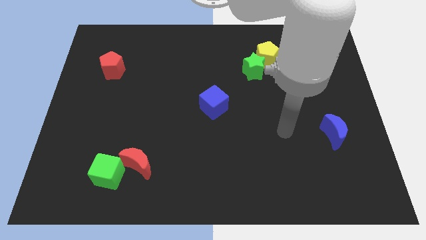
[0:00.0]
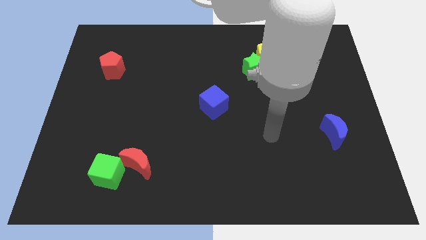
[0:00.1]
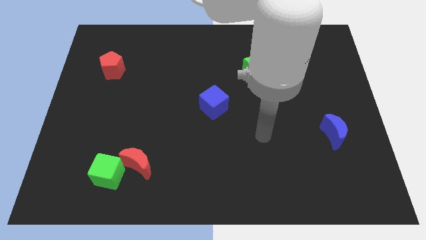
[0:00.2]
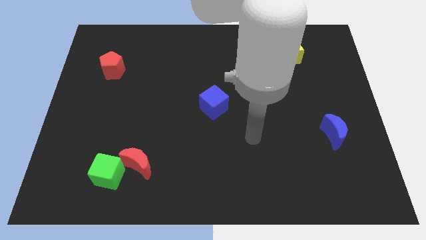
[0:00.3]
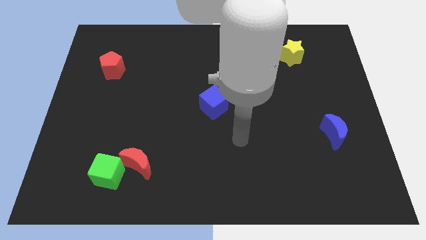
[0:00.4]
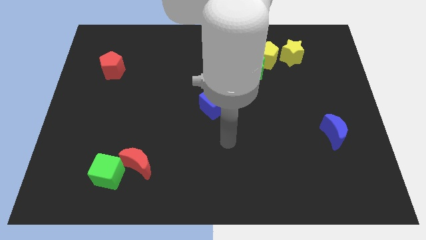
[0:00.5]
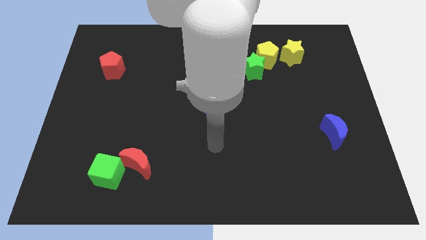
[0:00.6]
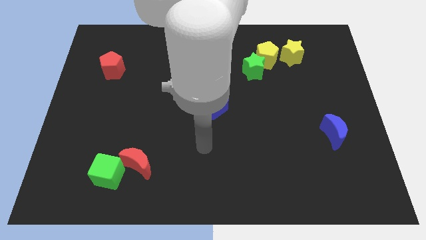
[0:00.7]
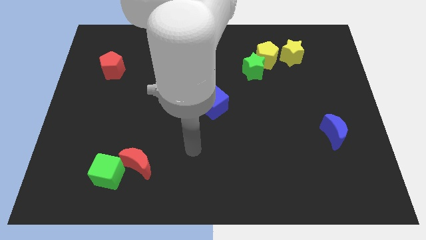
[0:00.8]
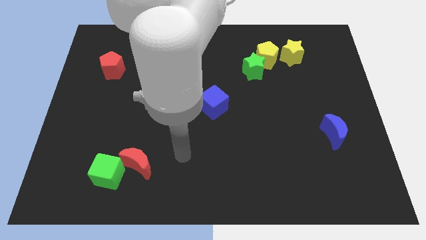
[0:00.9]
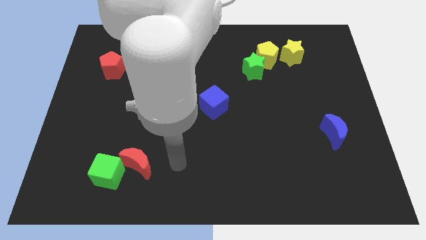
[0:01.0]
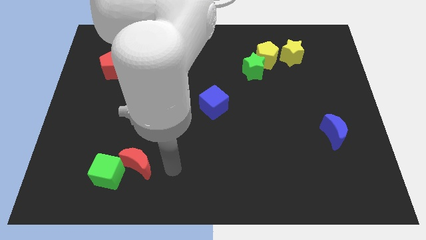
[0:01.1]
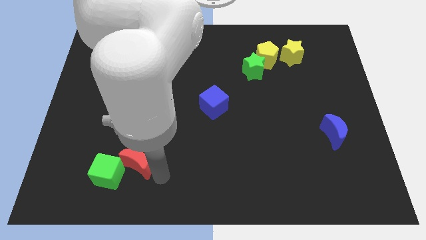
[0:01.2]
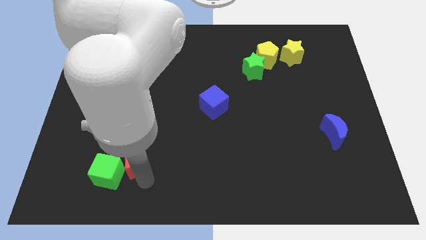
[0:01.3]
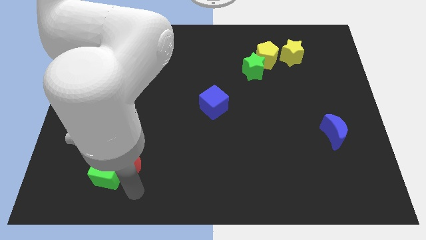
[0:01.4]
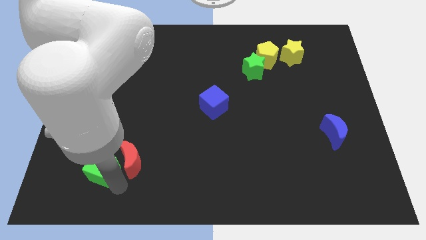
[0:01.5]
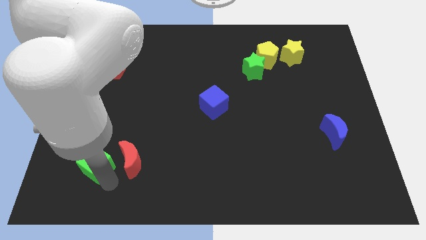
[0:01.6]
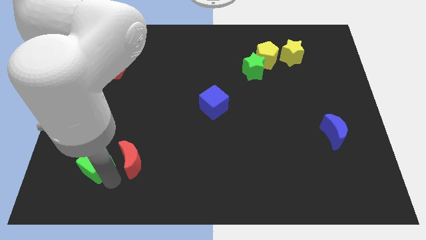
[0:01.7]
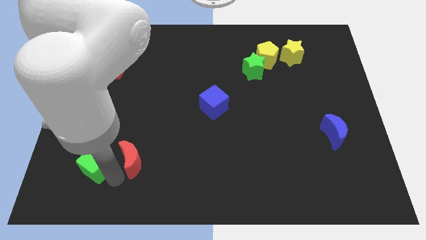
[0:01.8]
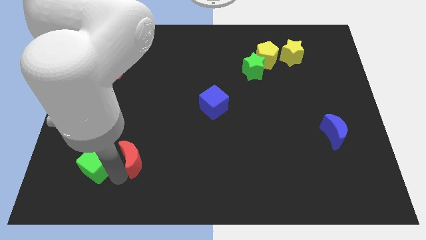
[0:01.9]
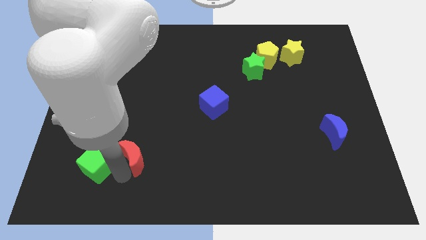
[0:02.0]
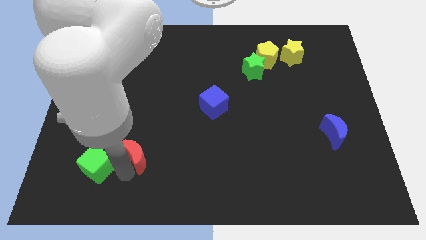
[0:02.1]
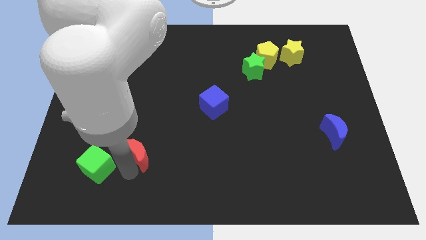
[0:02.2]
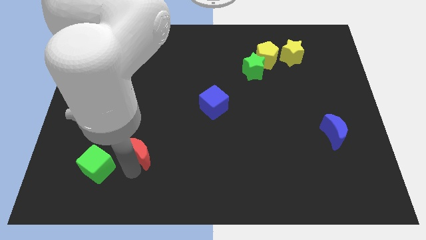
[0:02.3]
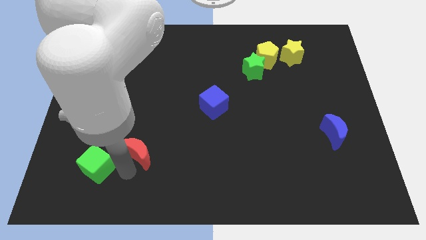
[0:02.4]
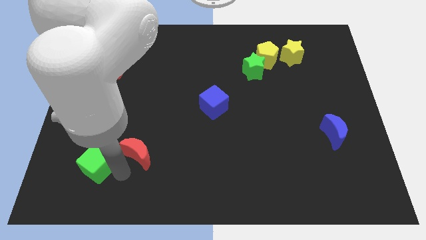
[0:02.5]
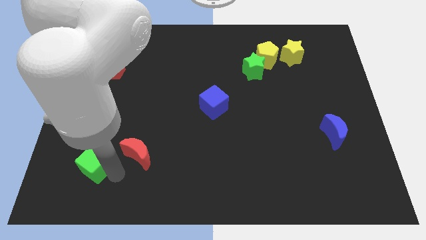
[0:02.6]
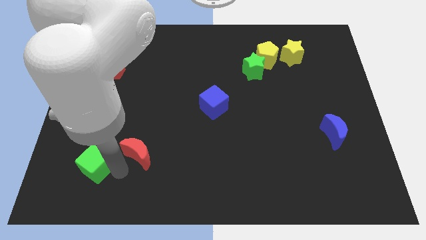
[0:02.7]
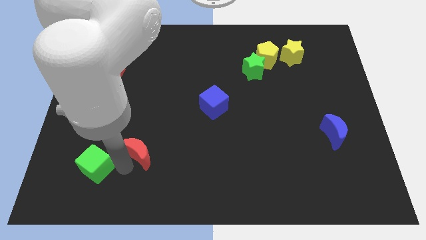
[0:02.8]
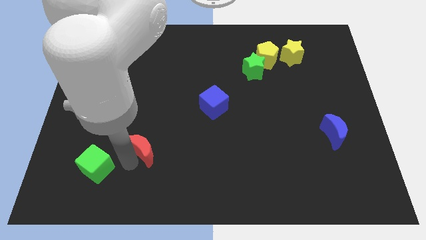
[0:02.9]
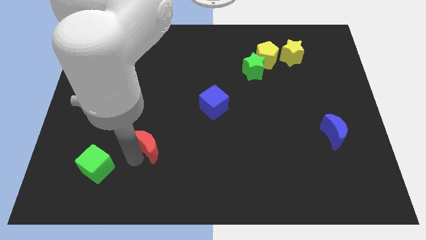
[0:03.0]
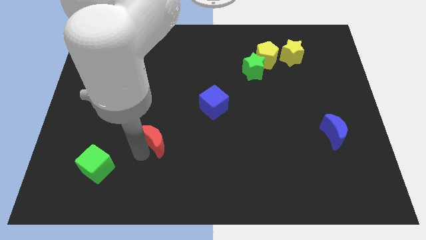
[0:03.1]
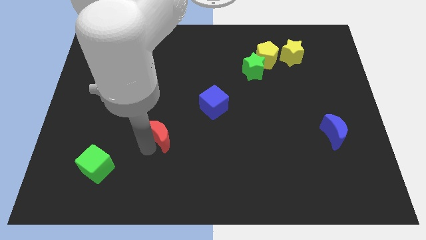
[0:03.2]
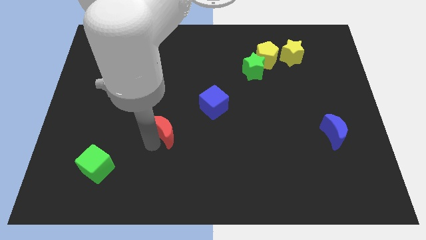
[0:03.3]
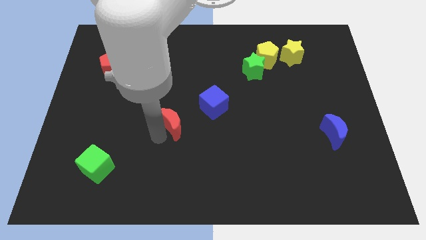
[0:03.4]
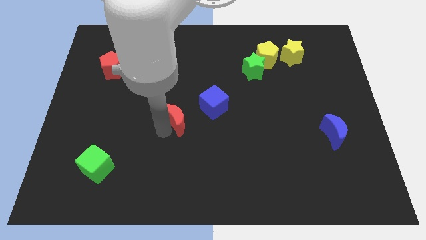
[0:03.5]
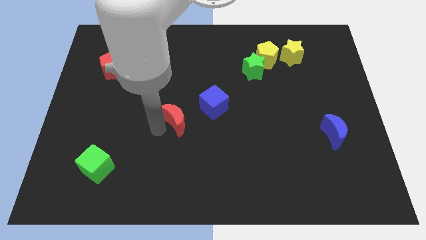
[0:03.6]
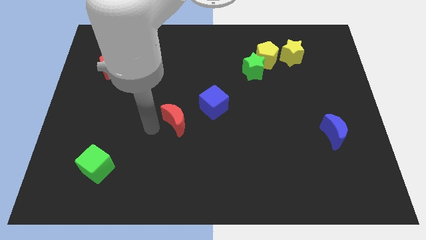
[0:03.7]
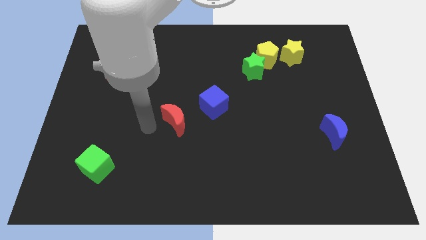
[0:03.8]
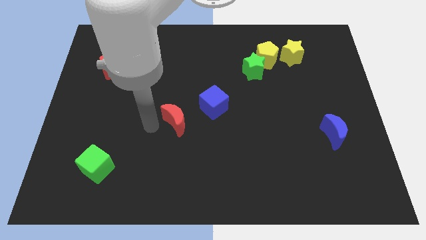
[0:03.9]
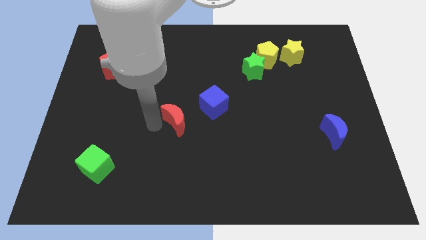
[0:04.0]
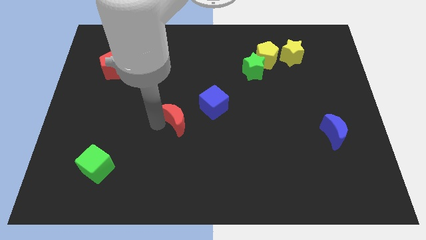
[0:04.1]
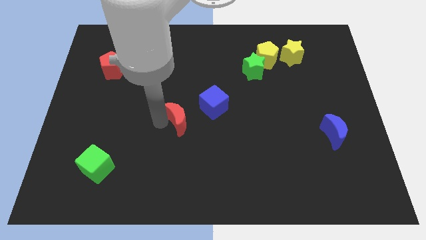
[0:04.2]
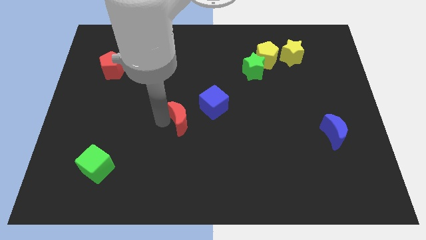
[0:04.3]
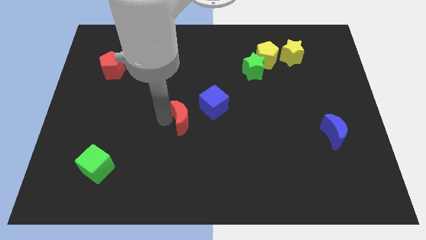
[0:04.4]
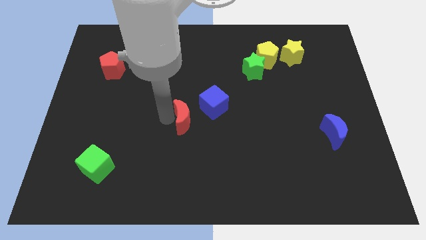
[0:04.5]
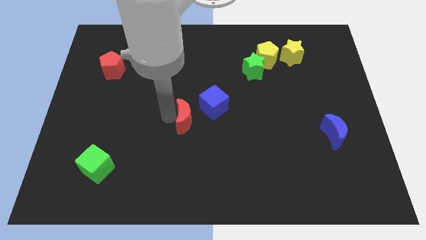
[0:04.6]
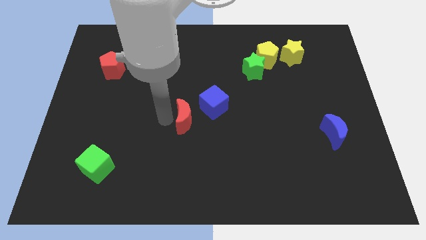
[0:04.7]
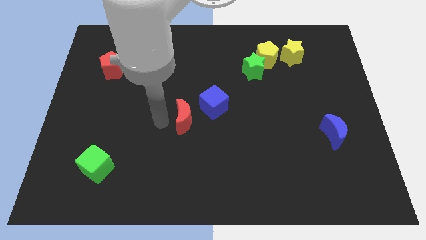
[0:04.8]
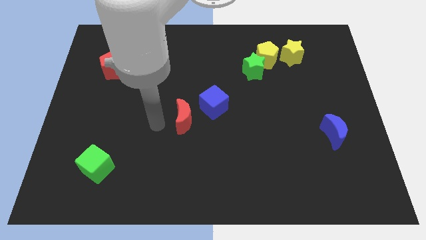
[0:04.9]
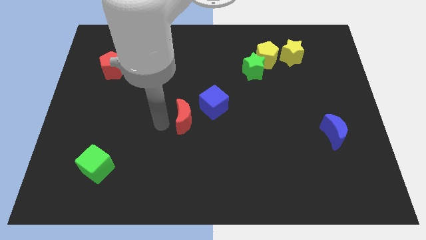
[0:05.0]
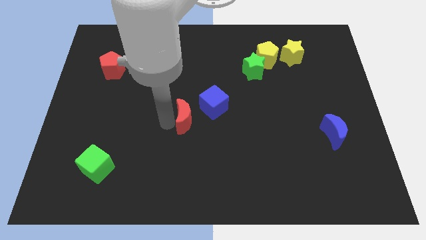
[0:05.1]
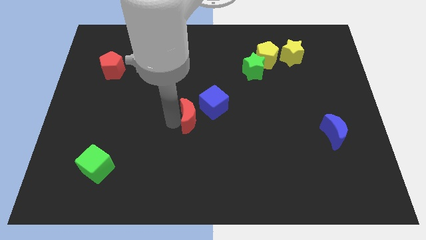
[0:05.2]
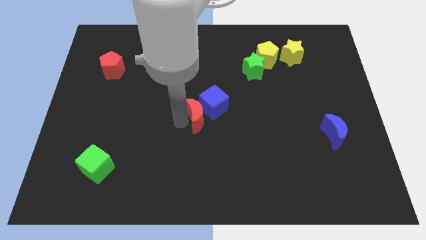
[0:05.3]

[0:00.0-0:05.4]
push the red moon next to the blue cube

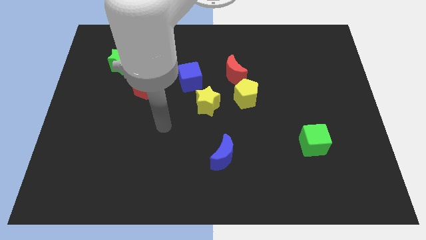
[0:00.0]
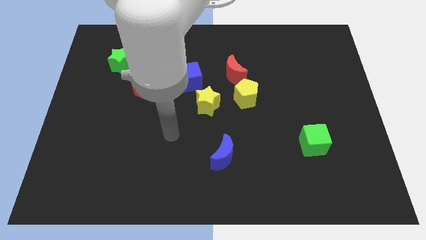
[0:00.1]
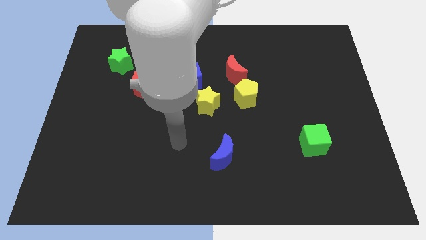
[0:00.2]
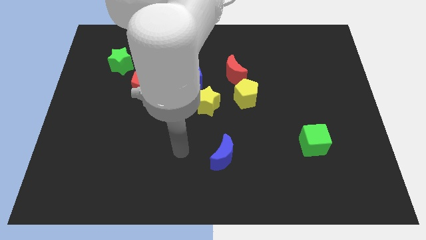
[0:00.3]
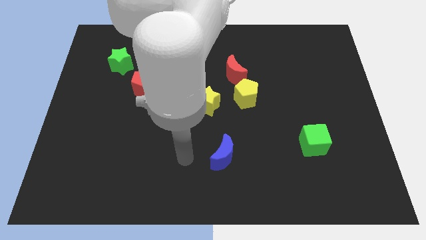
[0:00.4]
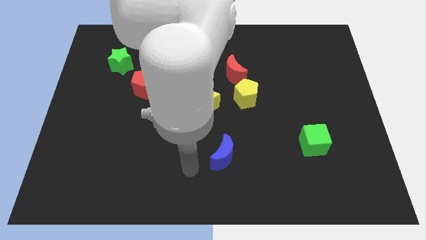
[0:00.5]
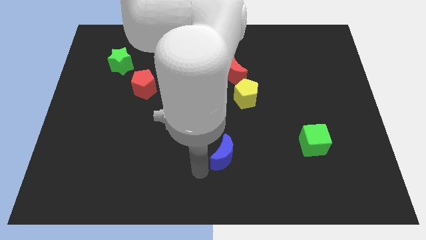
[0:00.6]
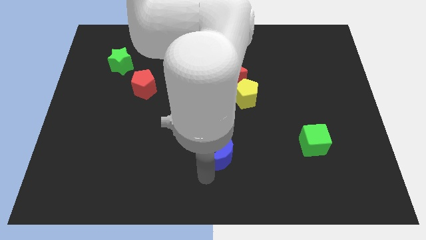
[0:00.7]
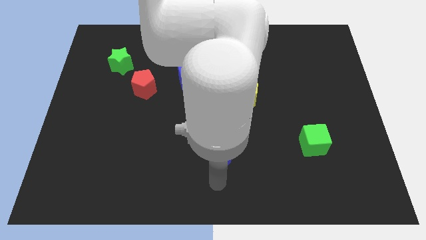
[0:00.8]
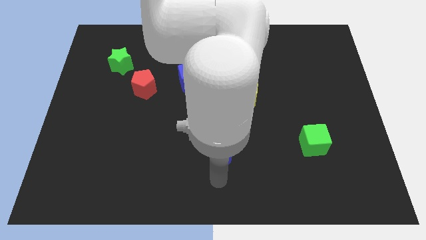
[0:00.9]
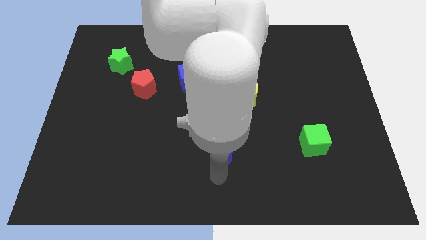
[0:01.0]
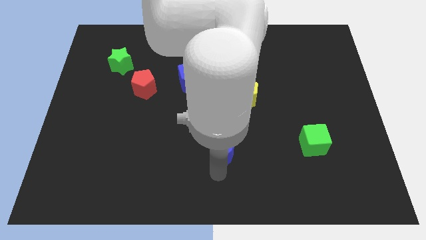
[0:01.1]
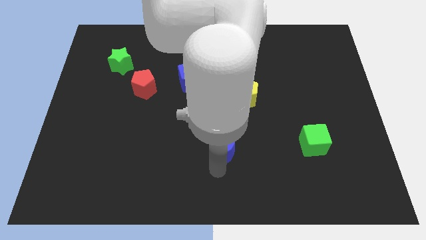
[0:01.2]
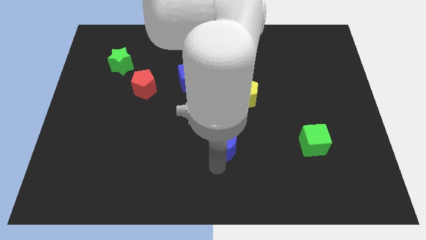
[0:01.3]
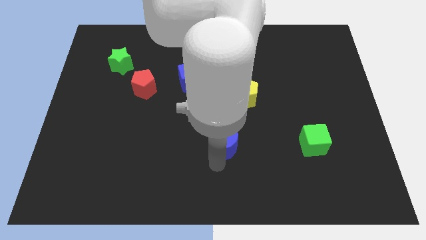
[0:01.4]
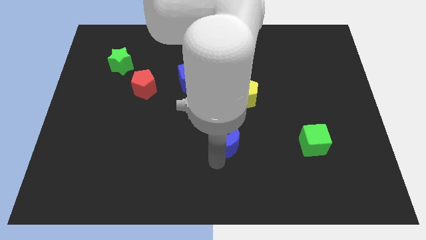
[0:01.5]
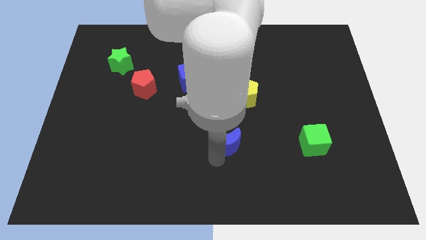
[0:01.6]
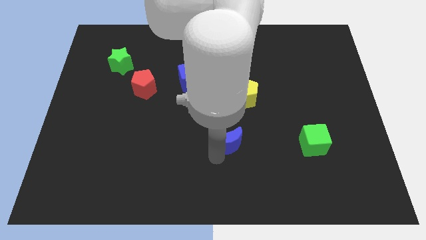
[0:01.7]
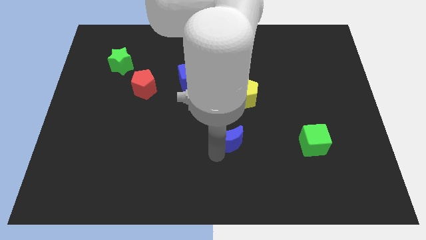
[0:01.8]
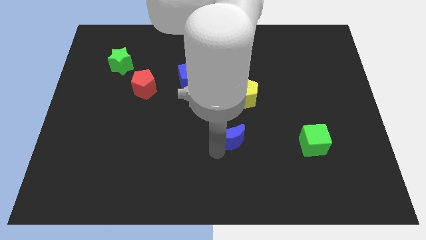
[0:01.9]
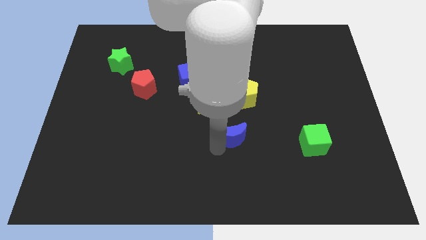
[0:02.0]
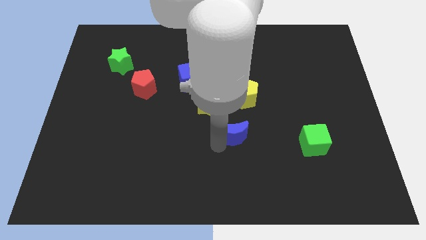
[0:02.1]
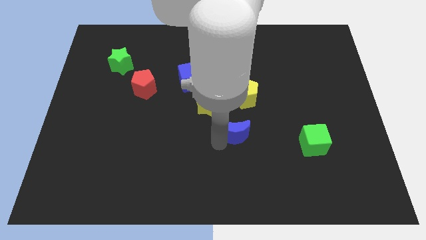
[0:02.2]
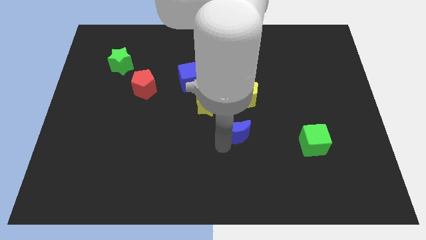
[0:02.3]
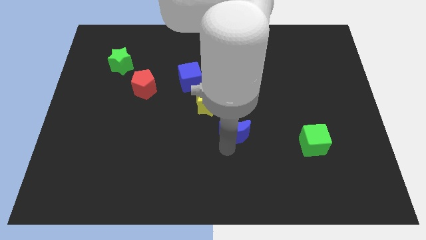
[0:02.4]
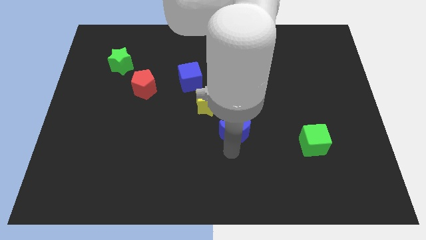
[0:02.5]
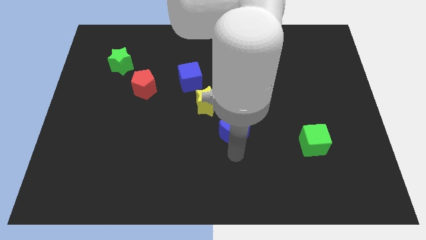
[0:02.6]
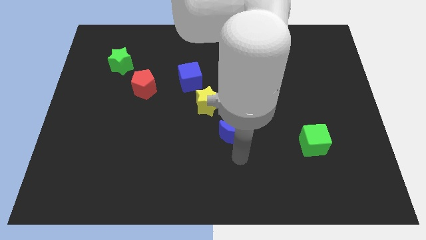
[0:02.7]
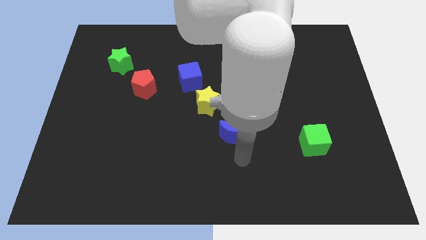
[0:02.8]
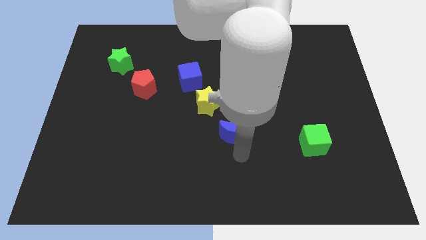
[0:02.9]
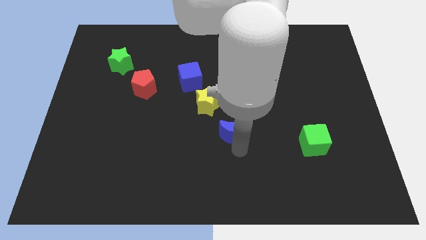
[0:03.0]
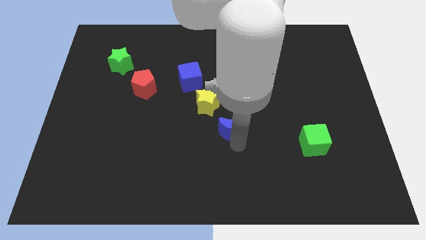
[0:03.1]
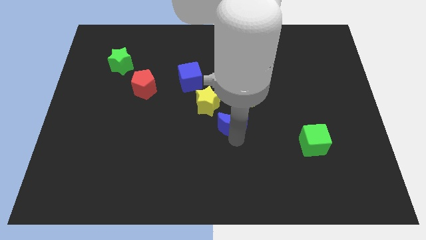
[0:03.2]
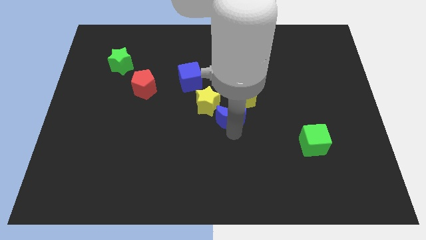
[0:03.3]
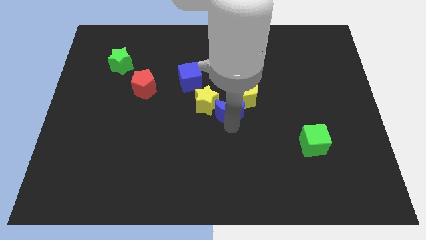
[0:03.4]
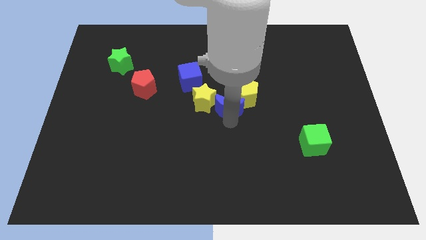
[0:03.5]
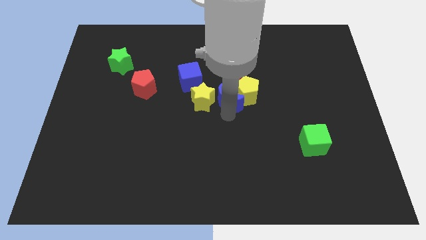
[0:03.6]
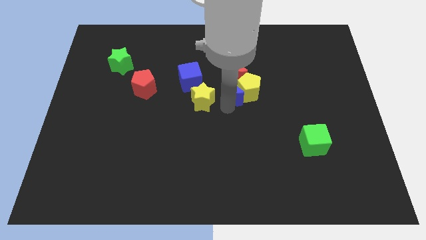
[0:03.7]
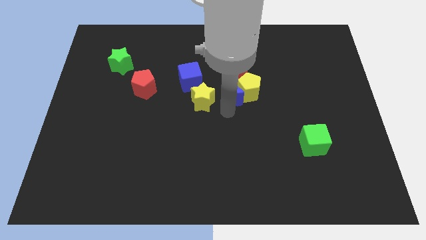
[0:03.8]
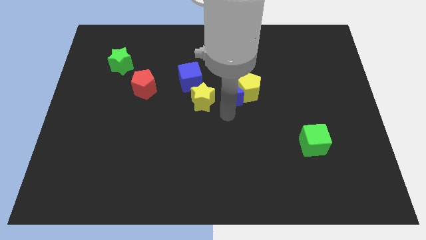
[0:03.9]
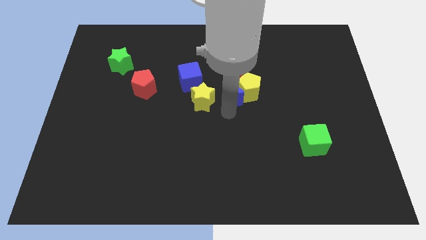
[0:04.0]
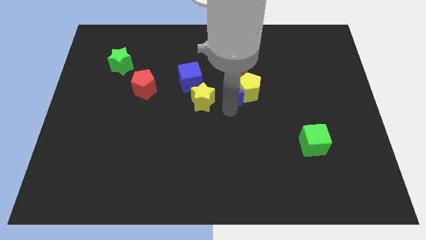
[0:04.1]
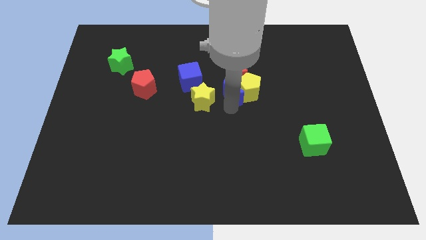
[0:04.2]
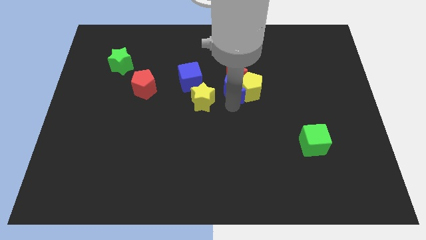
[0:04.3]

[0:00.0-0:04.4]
put the blue moon towards the red moon
